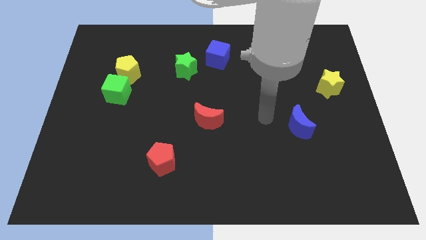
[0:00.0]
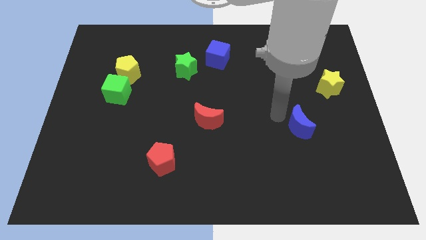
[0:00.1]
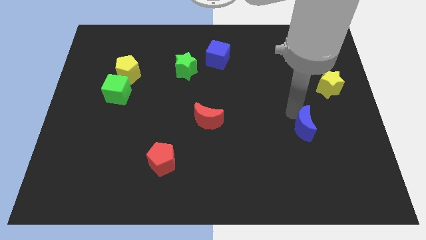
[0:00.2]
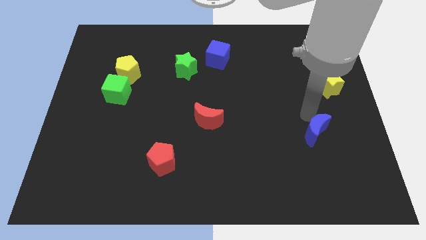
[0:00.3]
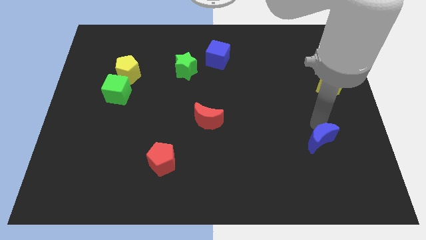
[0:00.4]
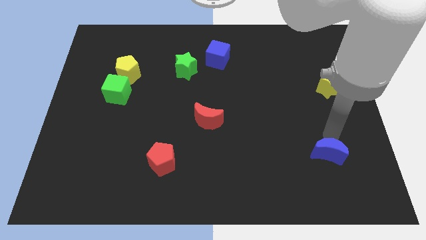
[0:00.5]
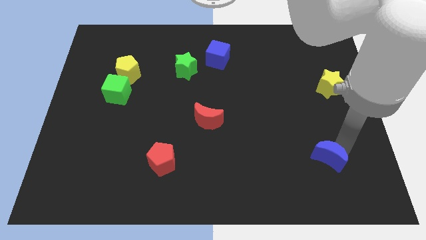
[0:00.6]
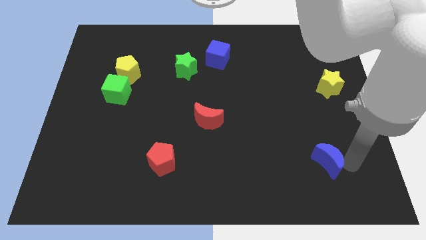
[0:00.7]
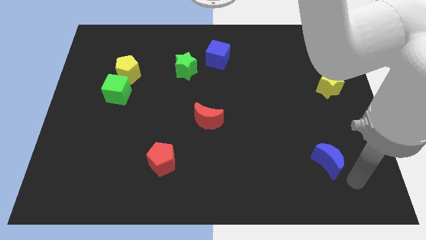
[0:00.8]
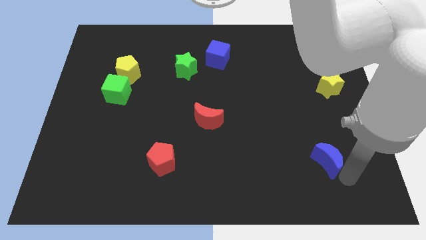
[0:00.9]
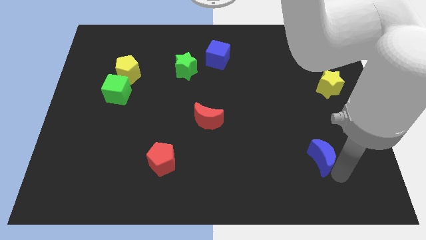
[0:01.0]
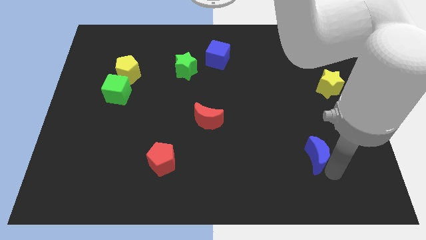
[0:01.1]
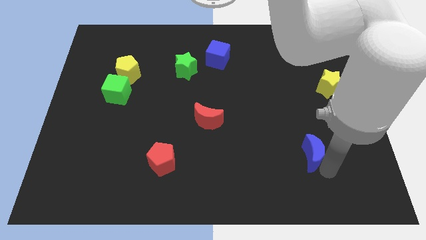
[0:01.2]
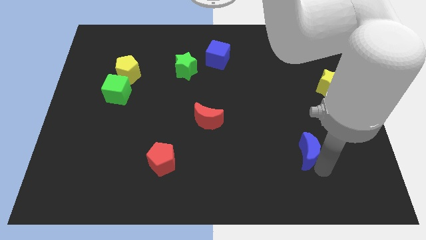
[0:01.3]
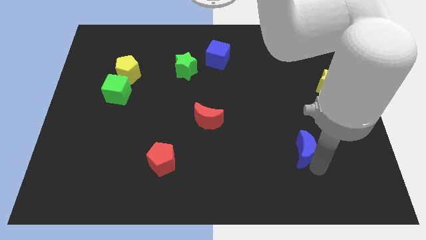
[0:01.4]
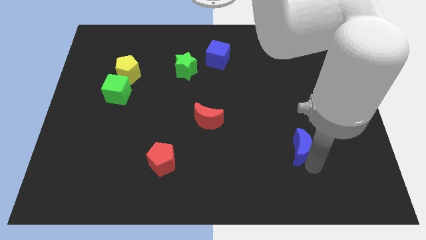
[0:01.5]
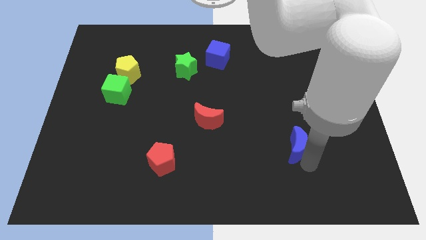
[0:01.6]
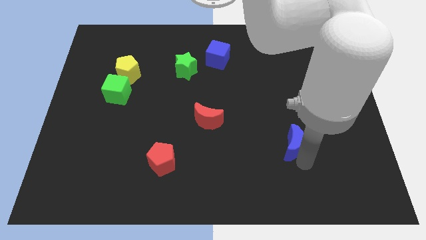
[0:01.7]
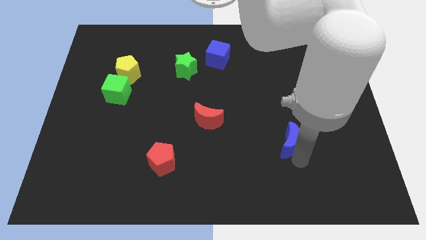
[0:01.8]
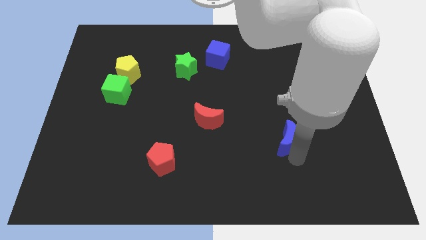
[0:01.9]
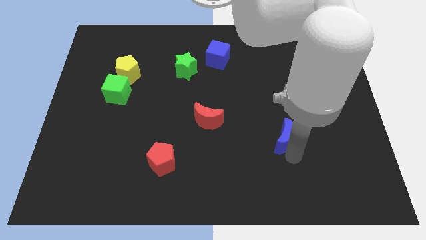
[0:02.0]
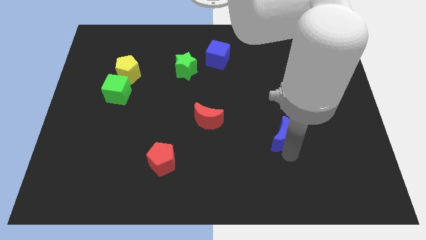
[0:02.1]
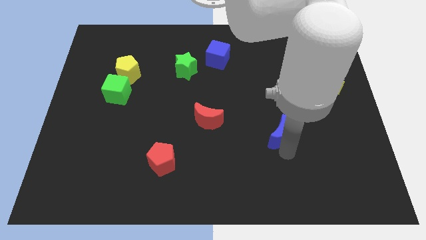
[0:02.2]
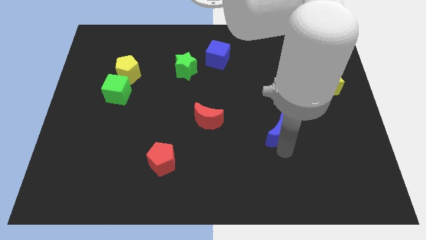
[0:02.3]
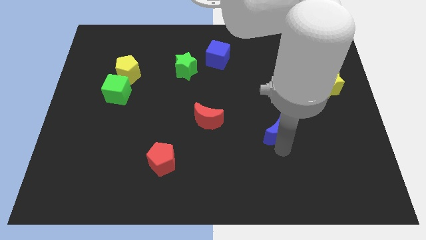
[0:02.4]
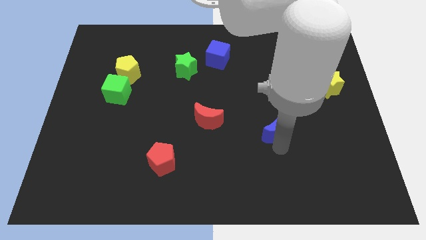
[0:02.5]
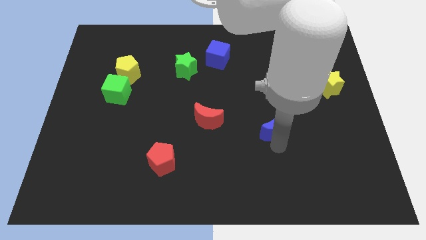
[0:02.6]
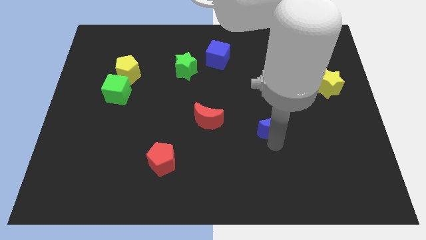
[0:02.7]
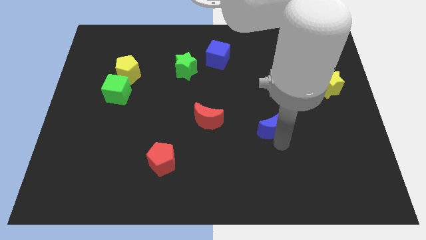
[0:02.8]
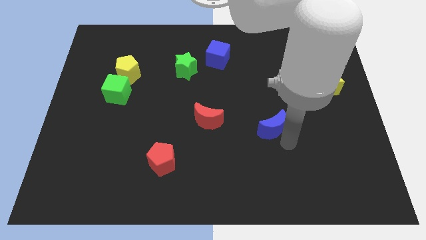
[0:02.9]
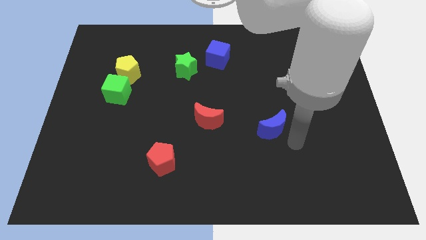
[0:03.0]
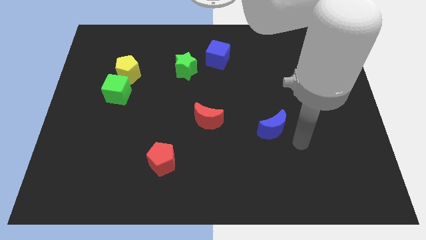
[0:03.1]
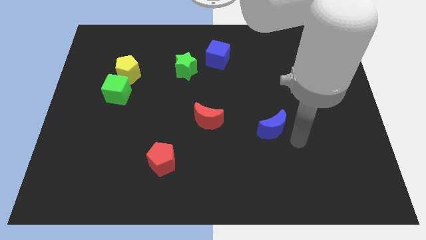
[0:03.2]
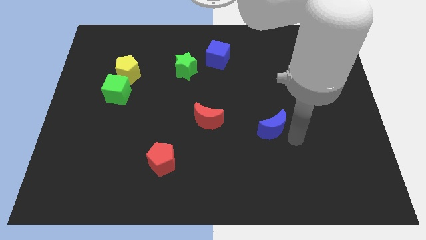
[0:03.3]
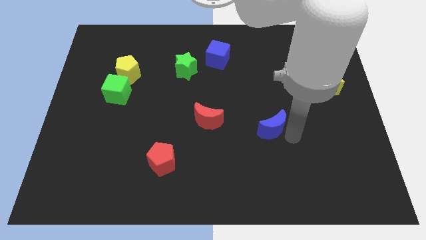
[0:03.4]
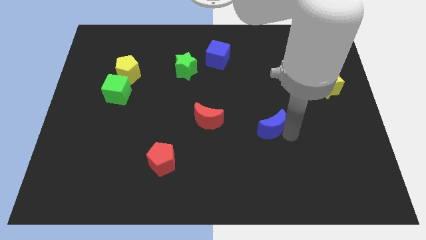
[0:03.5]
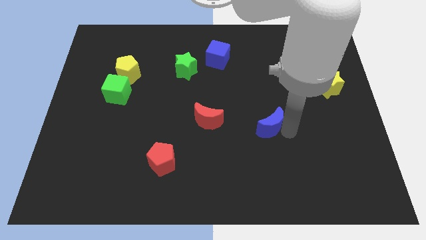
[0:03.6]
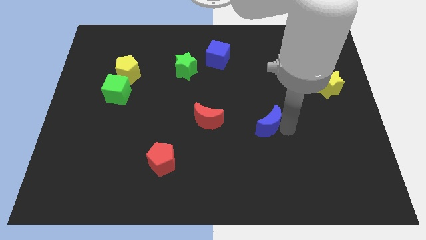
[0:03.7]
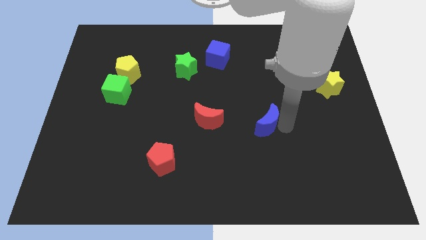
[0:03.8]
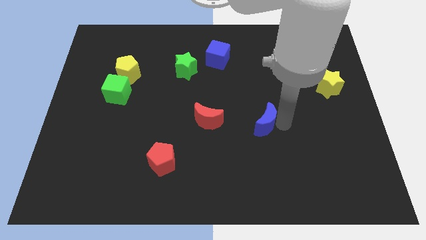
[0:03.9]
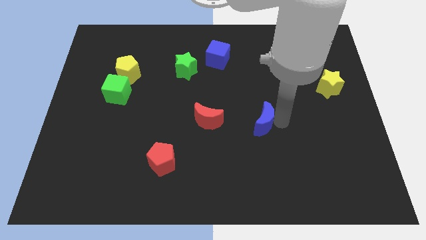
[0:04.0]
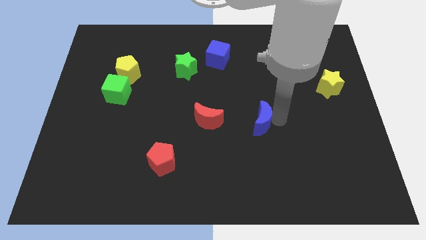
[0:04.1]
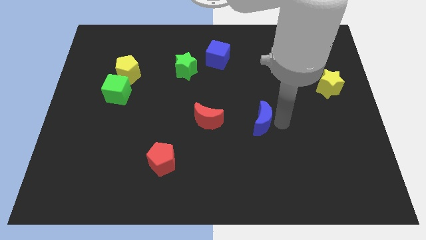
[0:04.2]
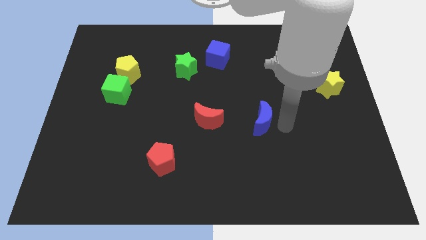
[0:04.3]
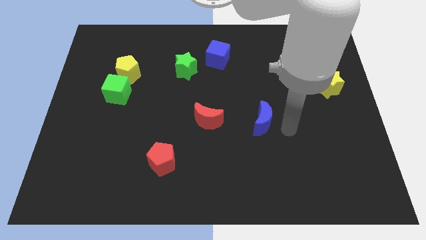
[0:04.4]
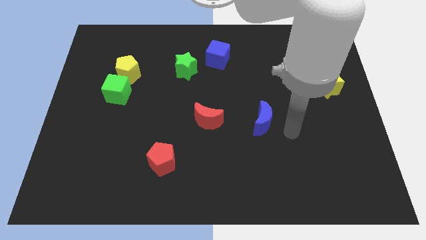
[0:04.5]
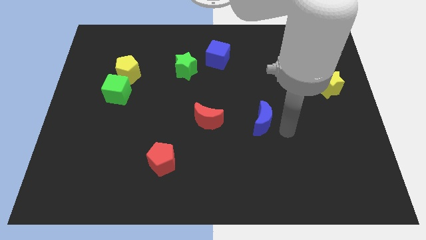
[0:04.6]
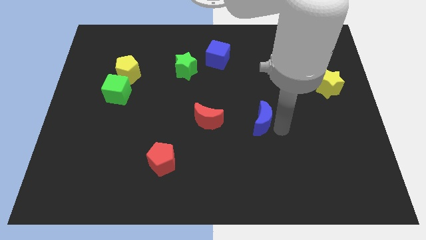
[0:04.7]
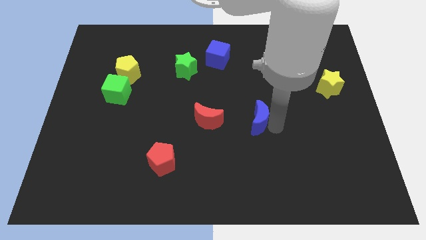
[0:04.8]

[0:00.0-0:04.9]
put the blue moon to the middle

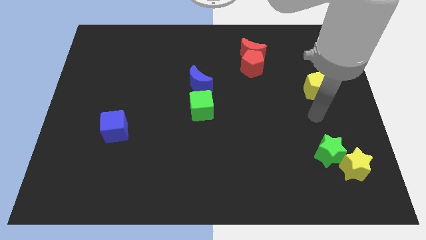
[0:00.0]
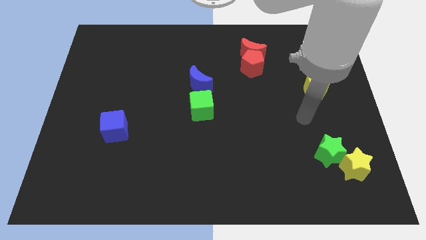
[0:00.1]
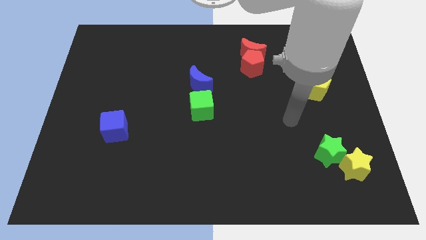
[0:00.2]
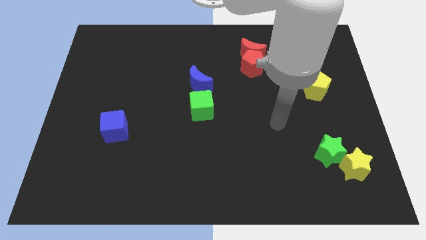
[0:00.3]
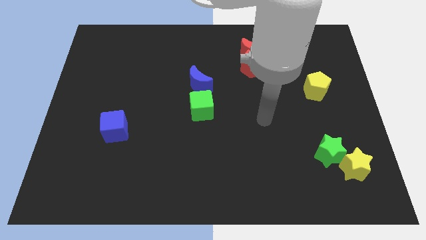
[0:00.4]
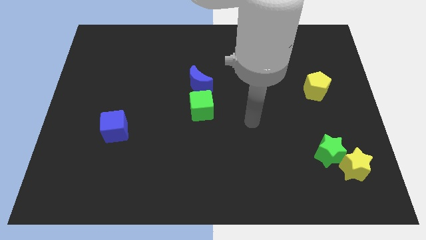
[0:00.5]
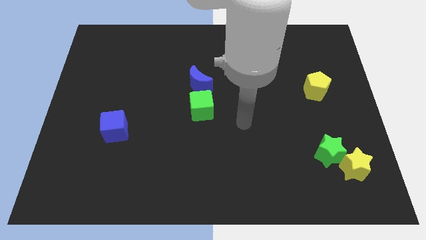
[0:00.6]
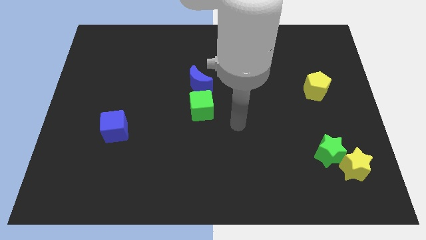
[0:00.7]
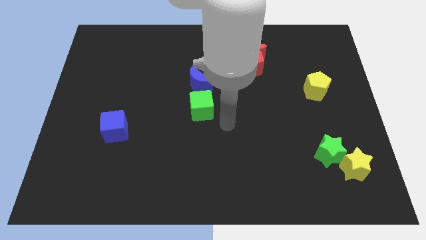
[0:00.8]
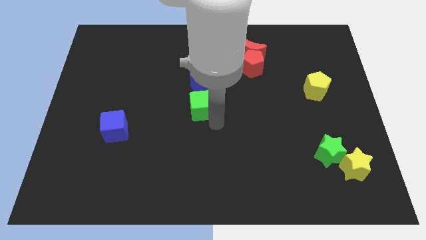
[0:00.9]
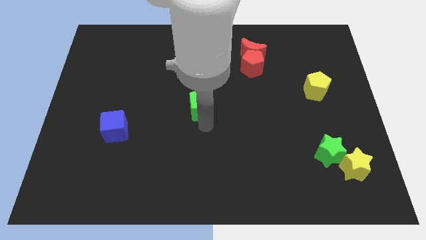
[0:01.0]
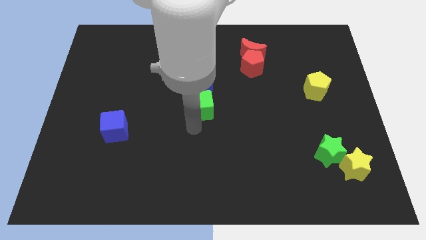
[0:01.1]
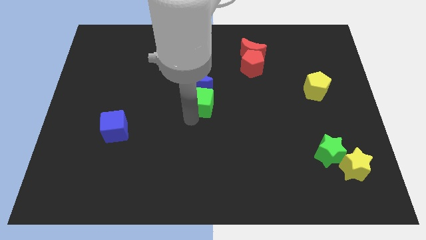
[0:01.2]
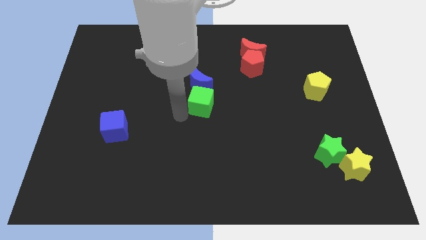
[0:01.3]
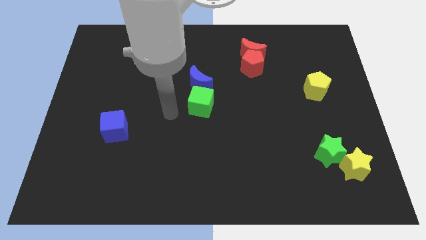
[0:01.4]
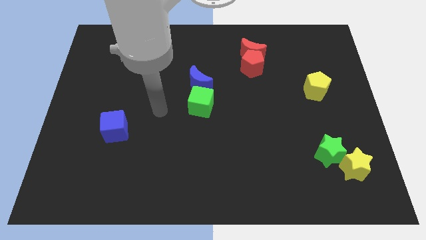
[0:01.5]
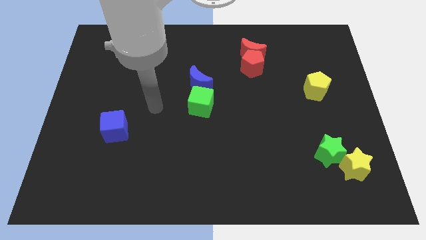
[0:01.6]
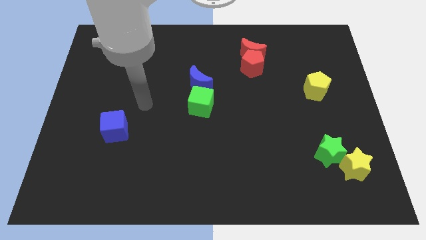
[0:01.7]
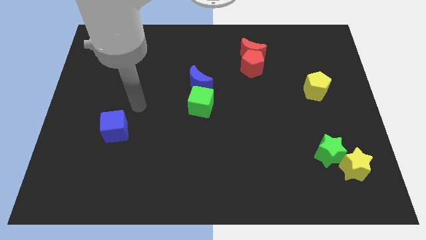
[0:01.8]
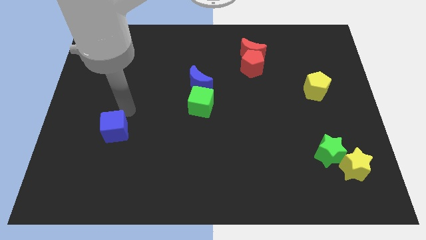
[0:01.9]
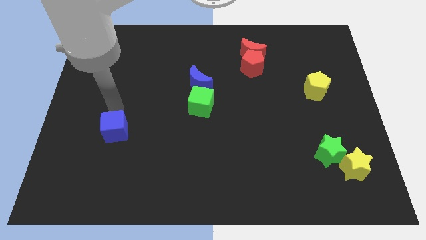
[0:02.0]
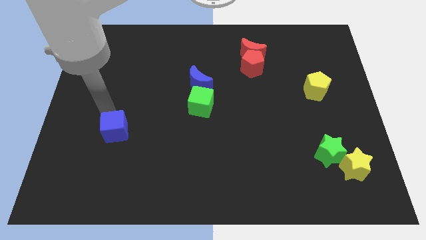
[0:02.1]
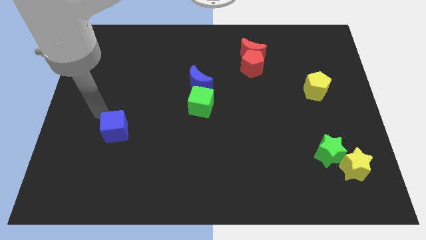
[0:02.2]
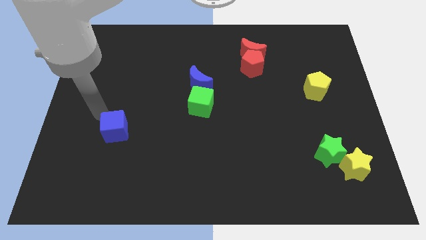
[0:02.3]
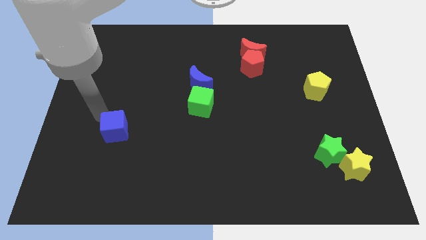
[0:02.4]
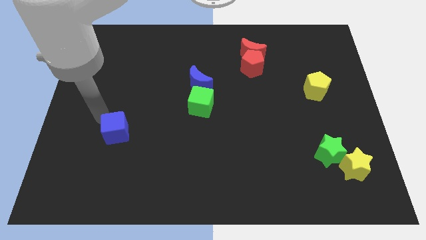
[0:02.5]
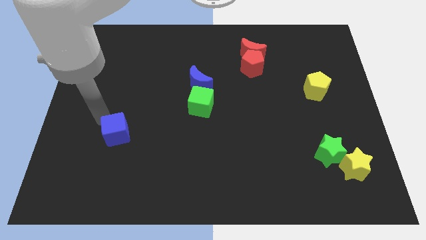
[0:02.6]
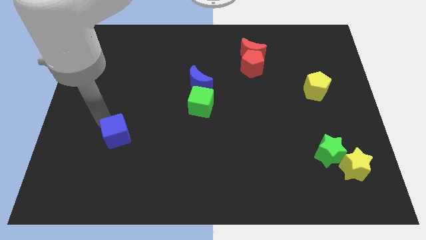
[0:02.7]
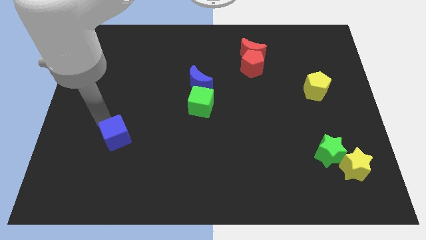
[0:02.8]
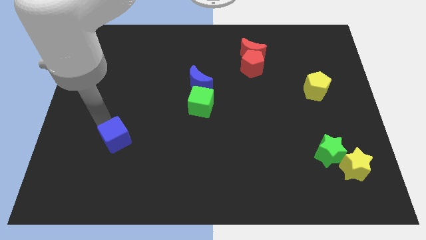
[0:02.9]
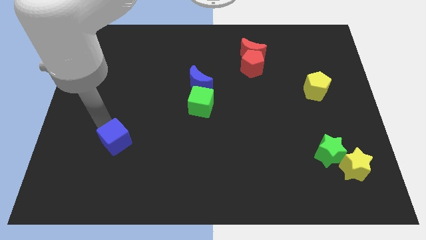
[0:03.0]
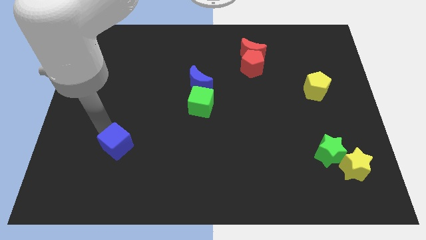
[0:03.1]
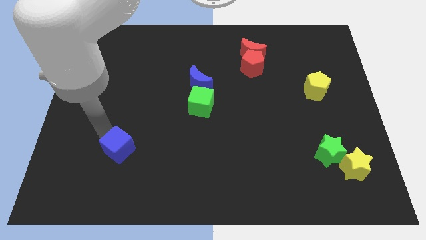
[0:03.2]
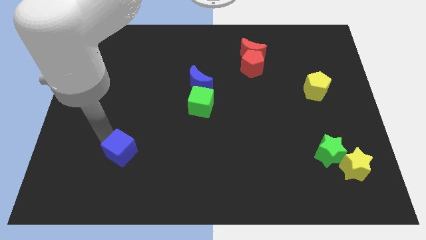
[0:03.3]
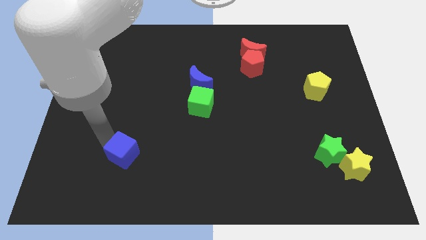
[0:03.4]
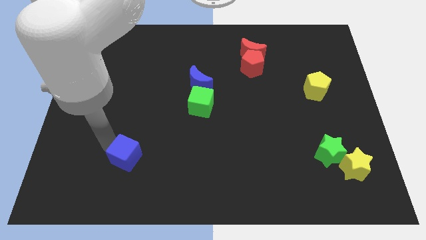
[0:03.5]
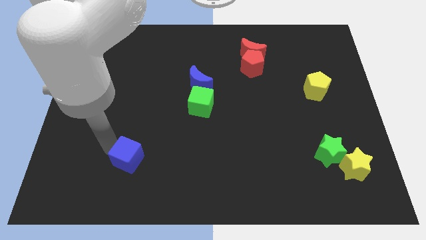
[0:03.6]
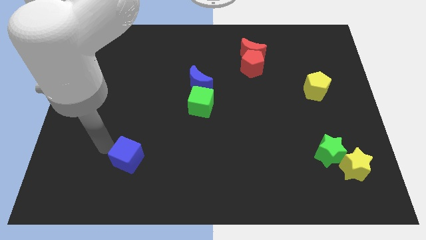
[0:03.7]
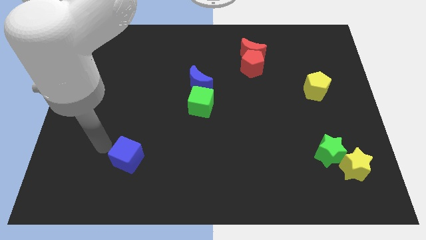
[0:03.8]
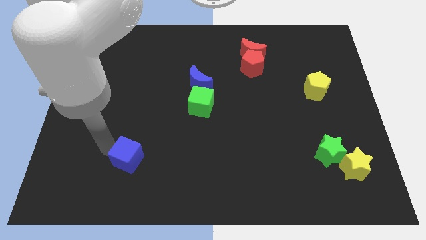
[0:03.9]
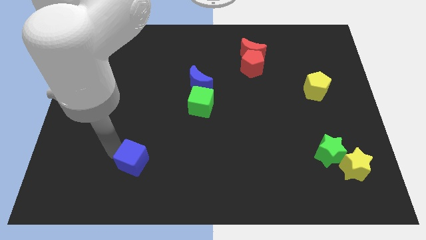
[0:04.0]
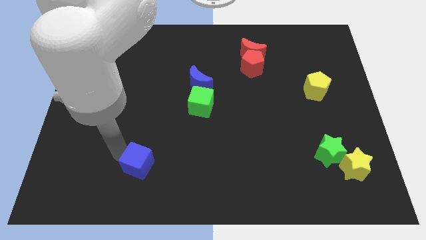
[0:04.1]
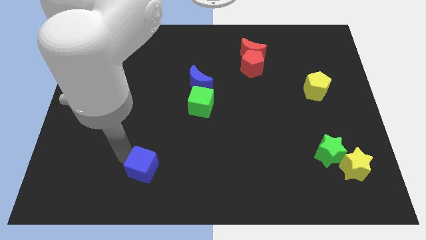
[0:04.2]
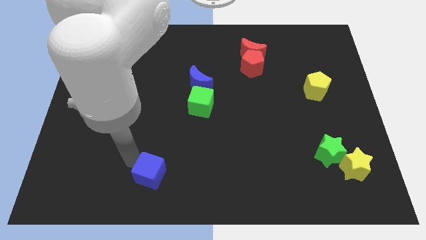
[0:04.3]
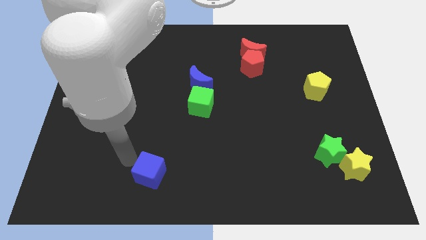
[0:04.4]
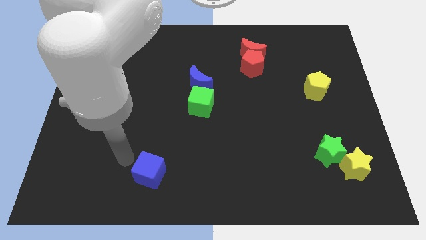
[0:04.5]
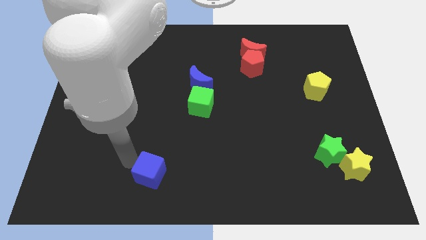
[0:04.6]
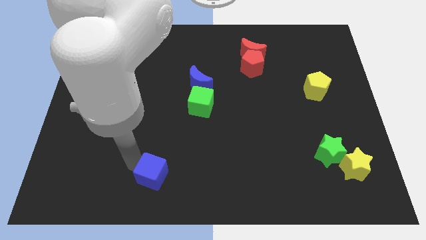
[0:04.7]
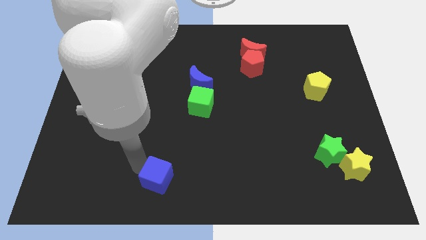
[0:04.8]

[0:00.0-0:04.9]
move the blue cube to the bottom side
